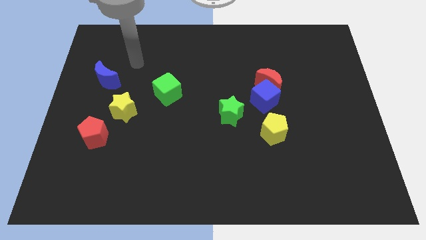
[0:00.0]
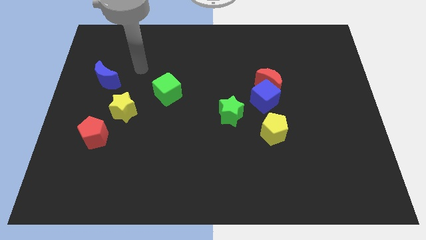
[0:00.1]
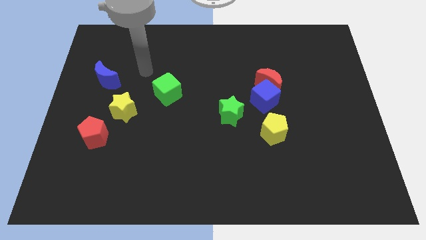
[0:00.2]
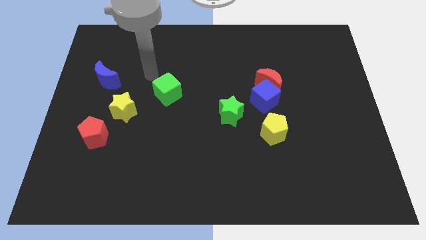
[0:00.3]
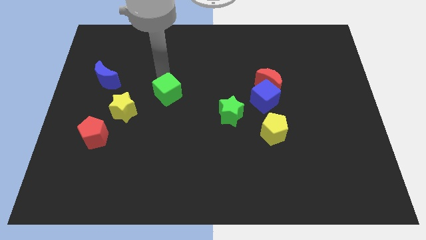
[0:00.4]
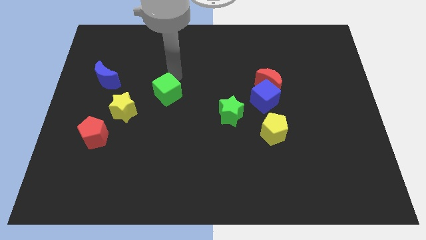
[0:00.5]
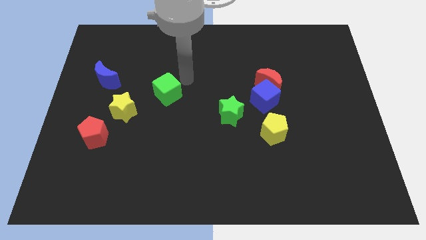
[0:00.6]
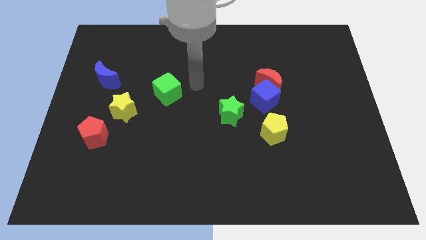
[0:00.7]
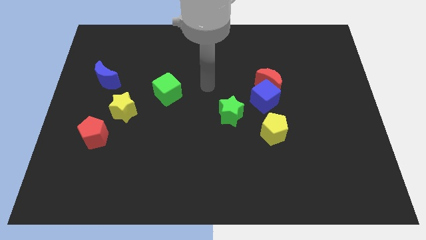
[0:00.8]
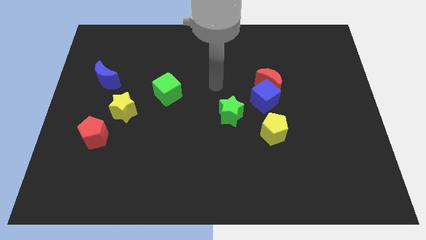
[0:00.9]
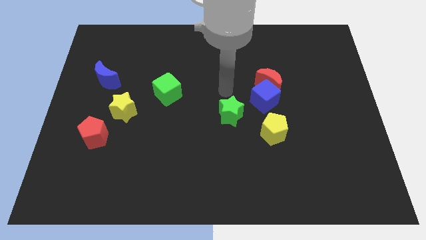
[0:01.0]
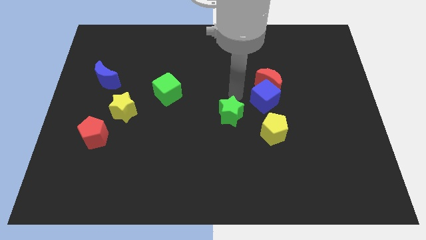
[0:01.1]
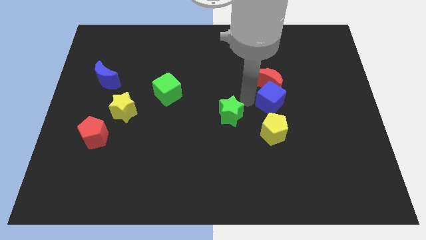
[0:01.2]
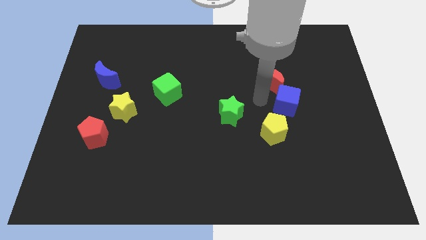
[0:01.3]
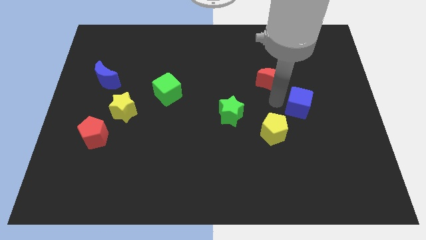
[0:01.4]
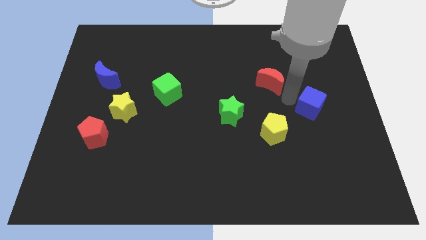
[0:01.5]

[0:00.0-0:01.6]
pull the red moon apart from the blue cube

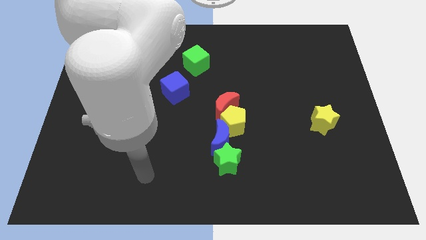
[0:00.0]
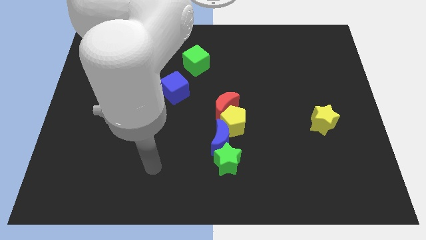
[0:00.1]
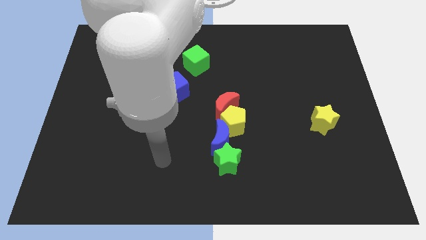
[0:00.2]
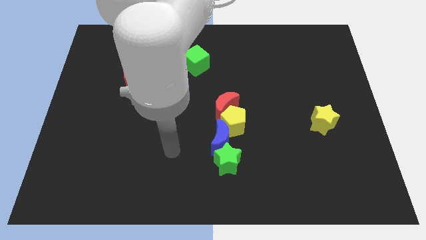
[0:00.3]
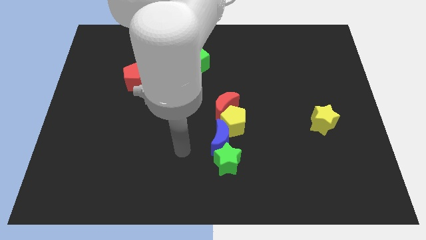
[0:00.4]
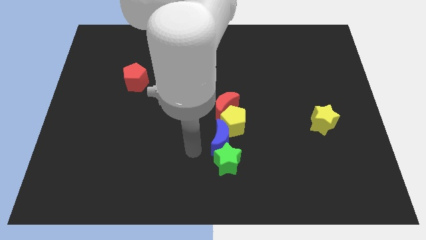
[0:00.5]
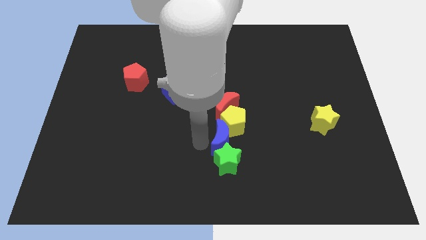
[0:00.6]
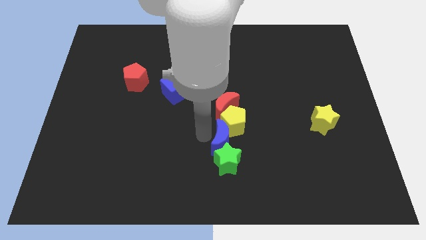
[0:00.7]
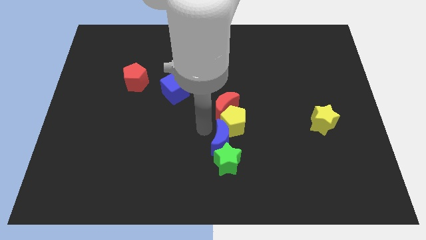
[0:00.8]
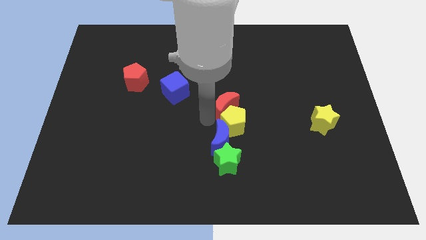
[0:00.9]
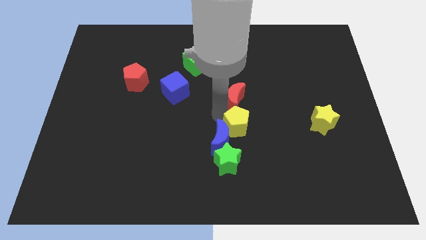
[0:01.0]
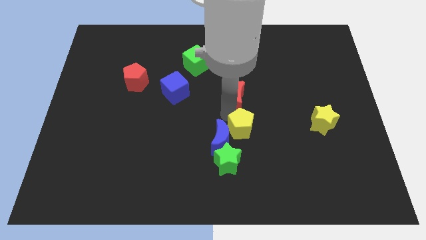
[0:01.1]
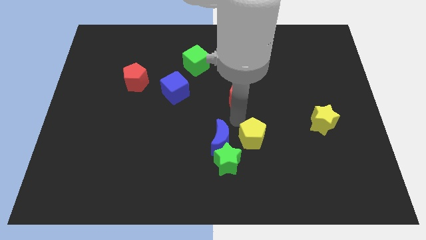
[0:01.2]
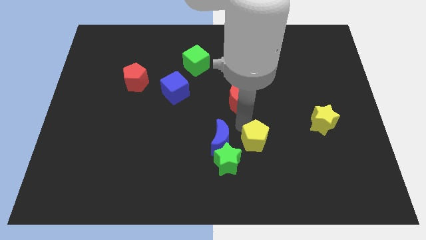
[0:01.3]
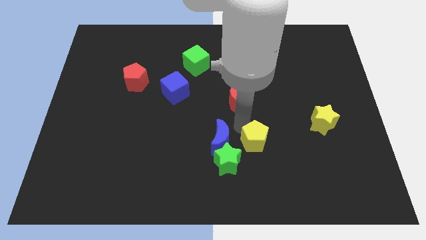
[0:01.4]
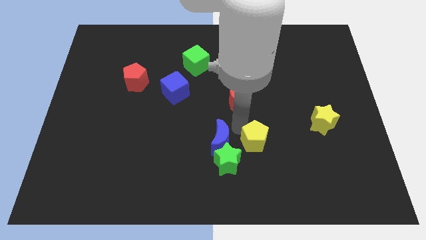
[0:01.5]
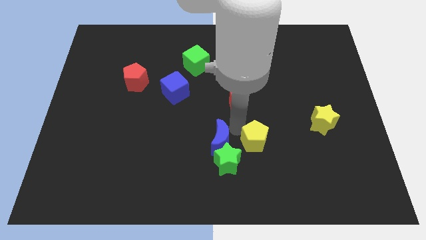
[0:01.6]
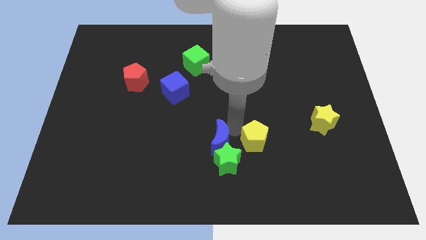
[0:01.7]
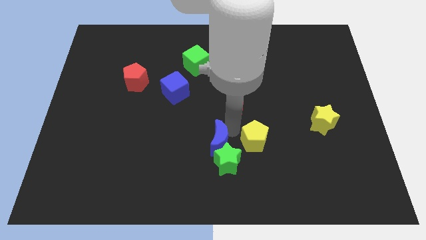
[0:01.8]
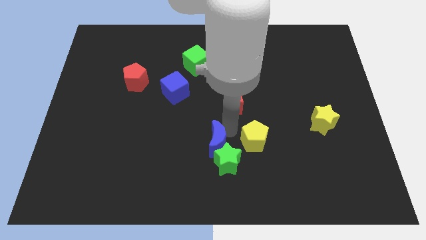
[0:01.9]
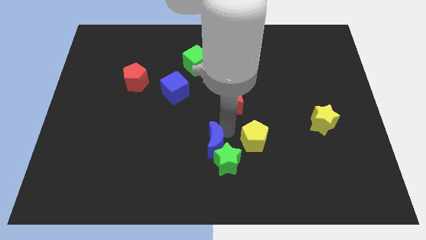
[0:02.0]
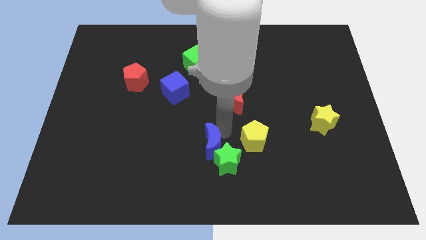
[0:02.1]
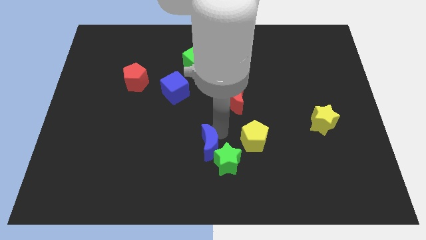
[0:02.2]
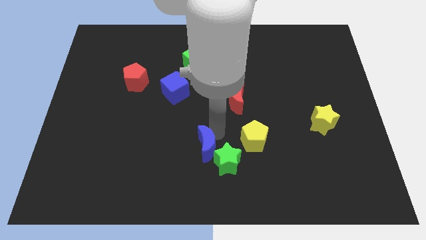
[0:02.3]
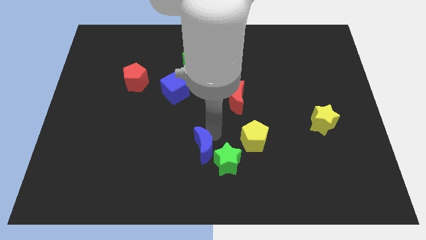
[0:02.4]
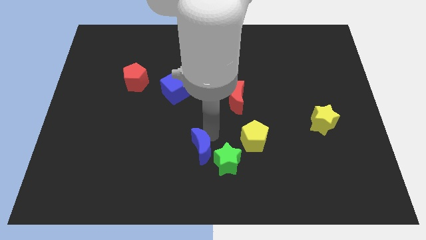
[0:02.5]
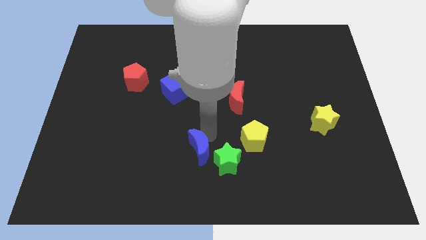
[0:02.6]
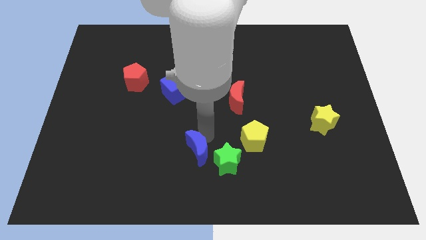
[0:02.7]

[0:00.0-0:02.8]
pull the blue moon apart from the group

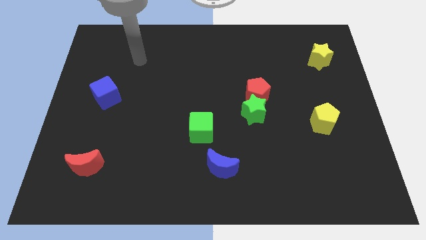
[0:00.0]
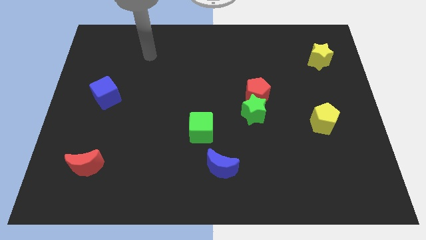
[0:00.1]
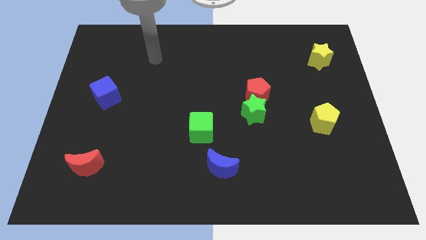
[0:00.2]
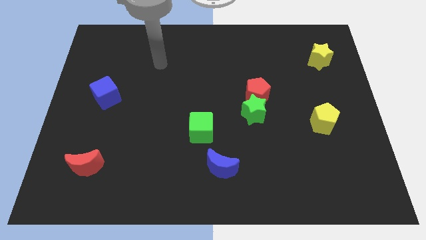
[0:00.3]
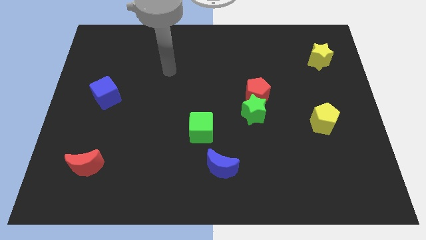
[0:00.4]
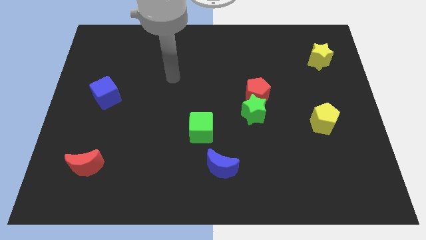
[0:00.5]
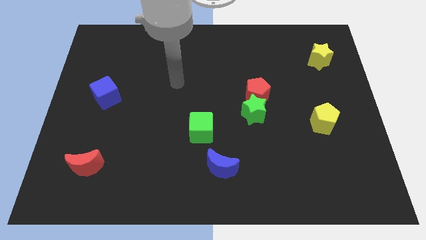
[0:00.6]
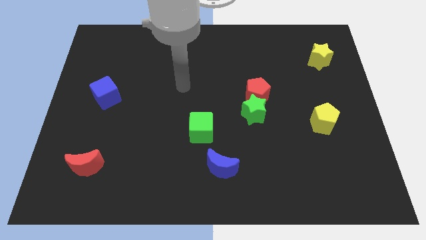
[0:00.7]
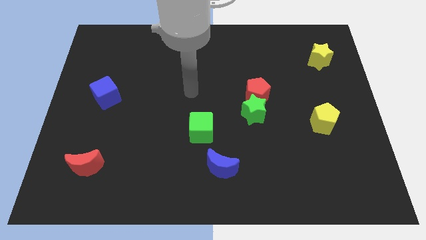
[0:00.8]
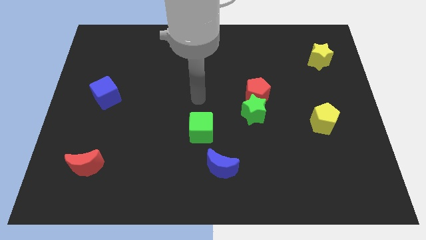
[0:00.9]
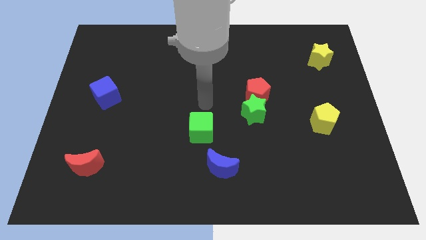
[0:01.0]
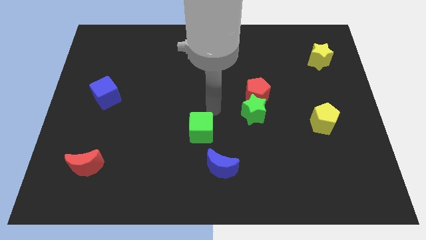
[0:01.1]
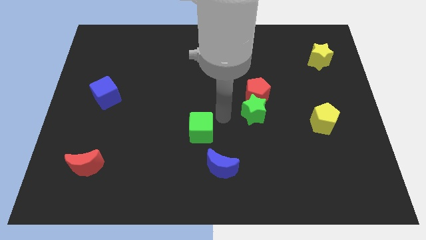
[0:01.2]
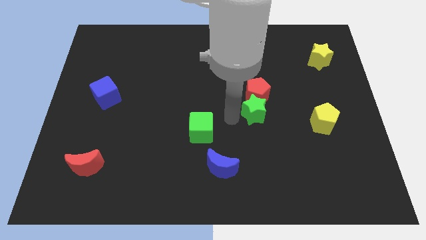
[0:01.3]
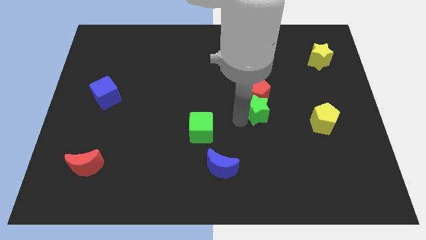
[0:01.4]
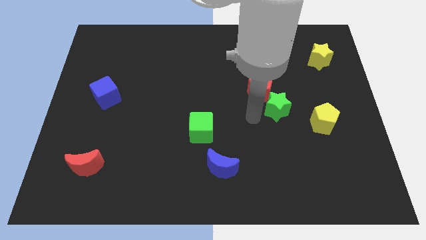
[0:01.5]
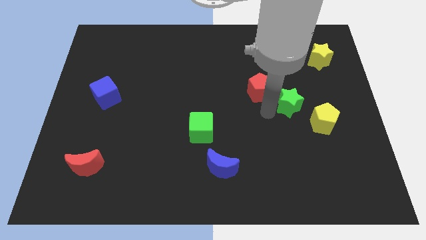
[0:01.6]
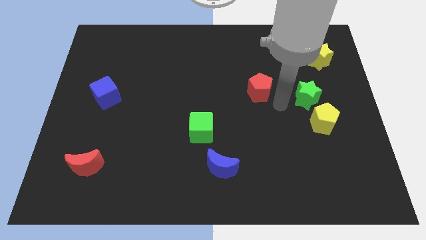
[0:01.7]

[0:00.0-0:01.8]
separate the red pentagon from the green star

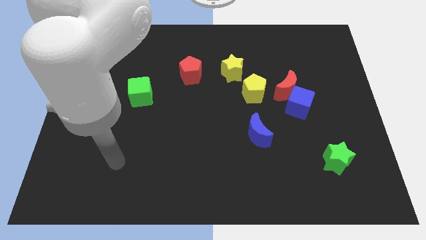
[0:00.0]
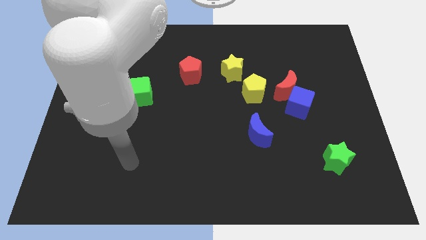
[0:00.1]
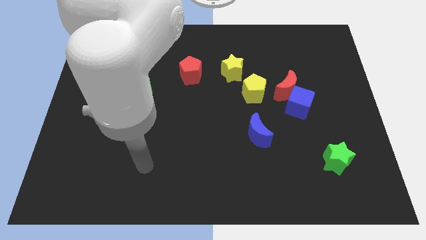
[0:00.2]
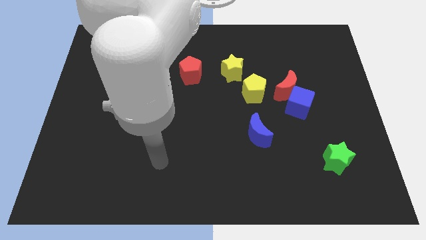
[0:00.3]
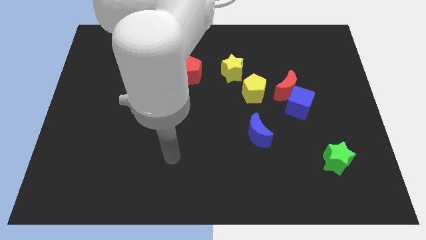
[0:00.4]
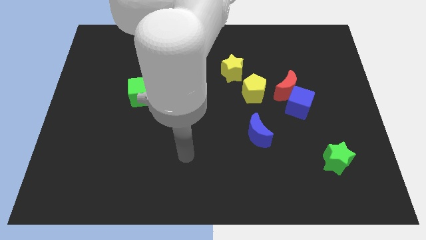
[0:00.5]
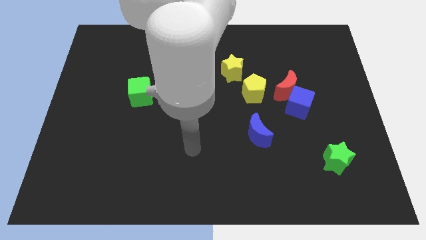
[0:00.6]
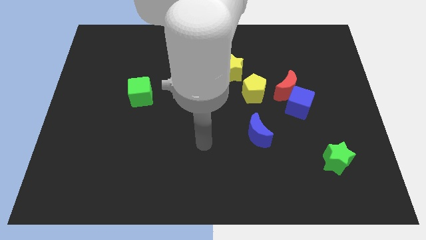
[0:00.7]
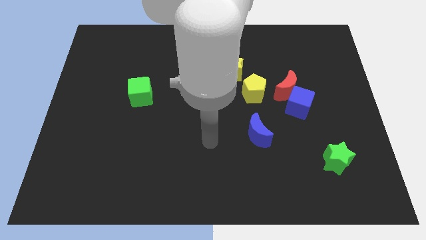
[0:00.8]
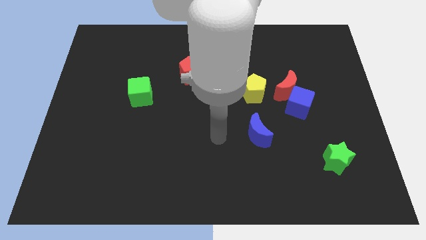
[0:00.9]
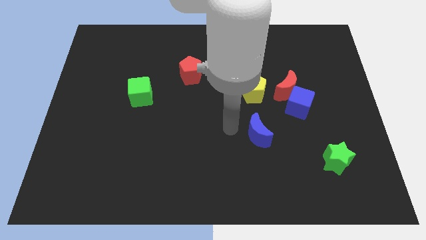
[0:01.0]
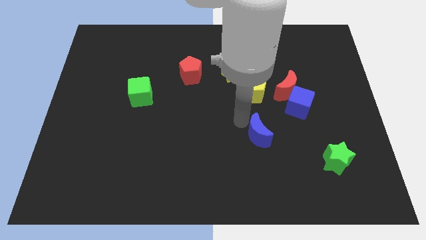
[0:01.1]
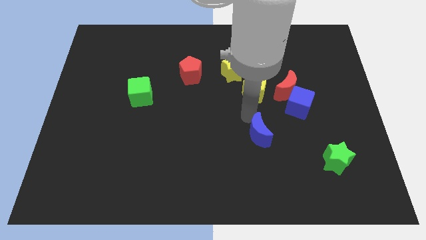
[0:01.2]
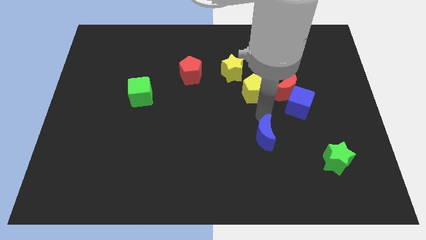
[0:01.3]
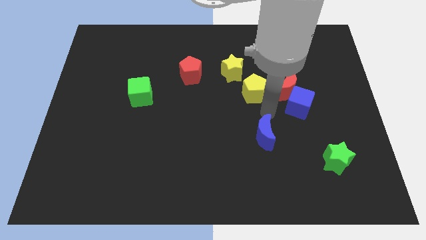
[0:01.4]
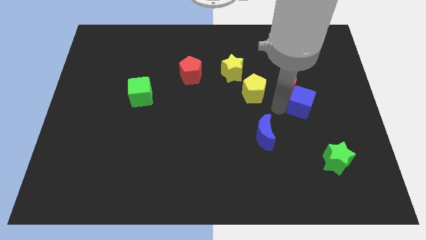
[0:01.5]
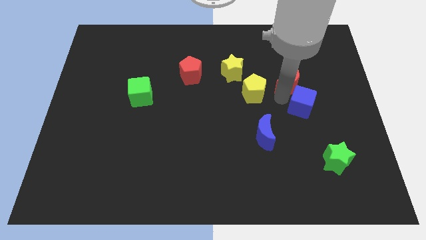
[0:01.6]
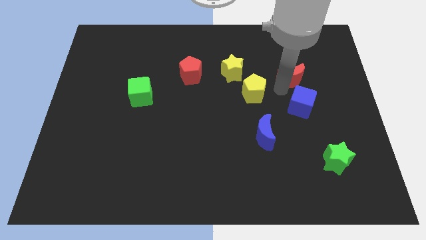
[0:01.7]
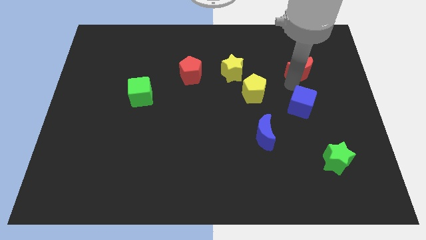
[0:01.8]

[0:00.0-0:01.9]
move the blue cube away from the red moon

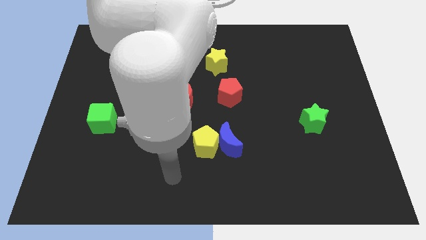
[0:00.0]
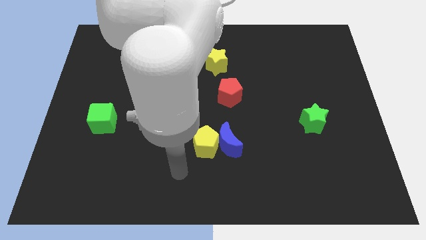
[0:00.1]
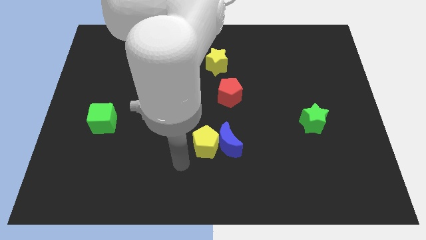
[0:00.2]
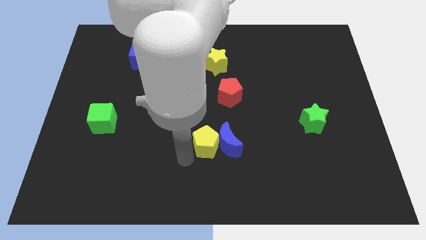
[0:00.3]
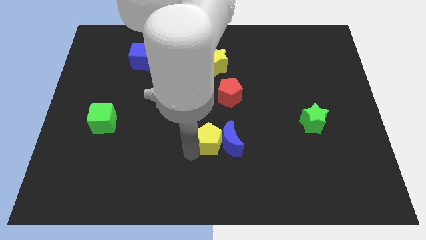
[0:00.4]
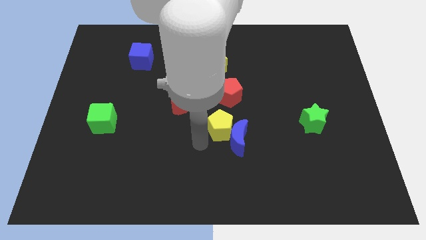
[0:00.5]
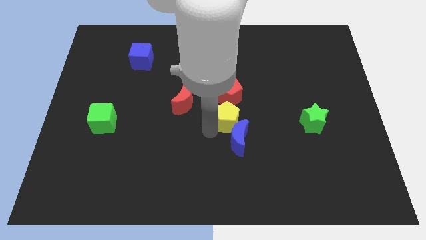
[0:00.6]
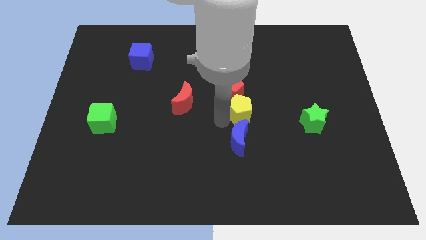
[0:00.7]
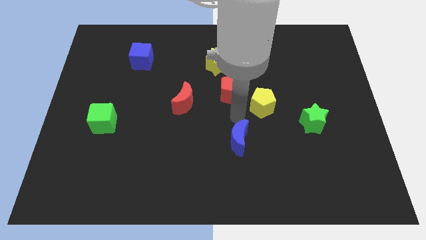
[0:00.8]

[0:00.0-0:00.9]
separate the blue moon from the yellow pentagon

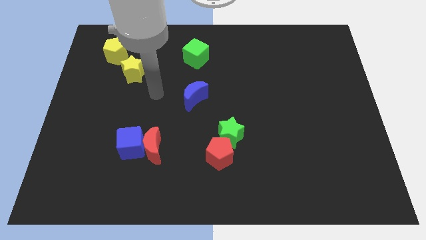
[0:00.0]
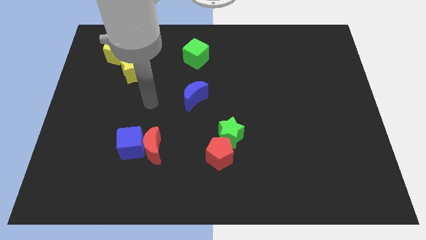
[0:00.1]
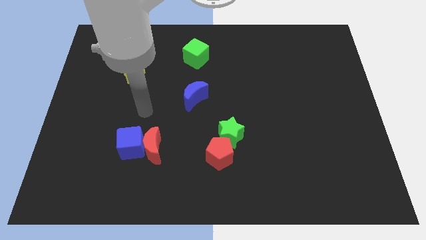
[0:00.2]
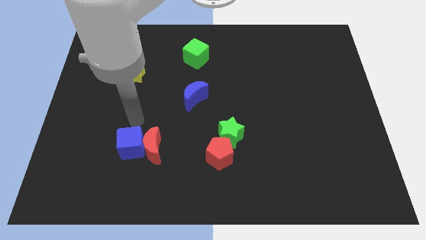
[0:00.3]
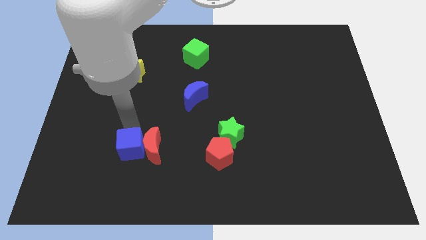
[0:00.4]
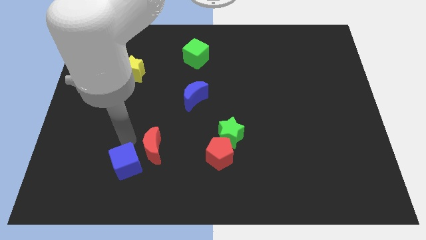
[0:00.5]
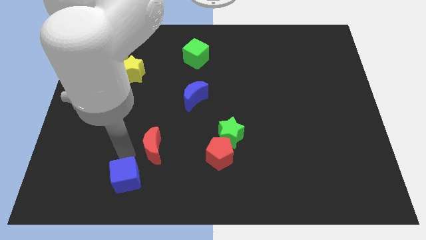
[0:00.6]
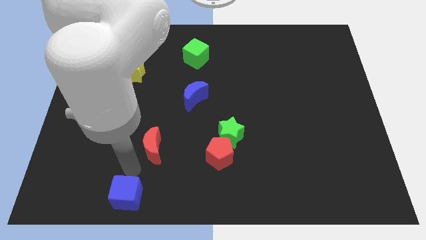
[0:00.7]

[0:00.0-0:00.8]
move the red moon away from the blue cube
